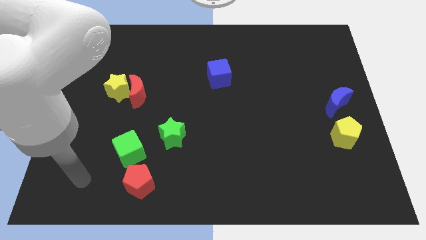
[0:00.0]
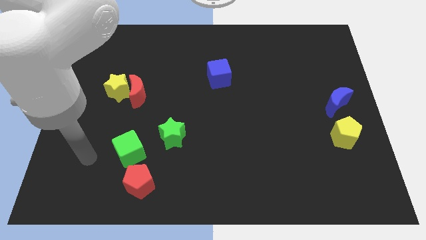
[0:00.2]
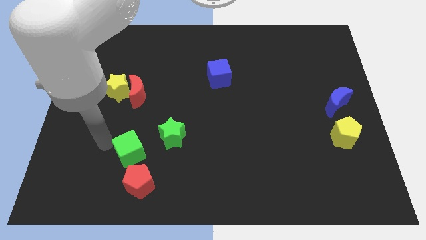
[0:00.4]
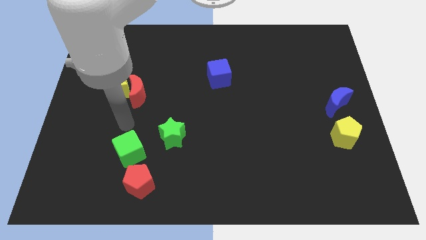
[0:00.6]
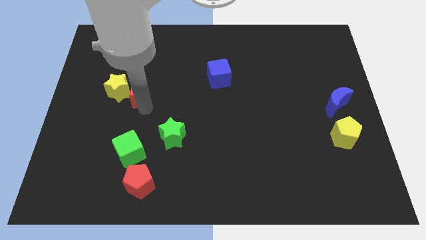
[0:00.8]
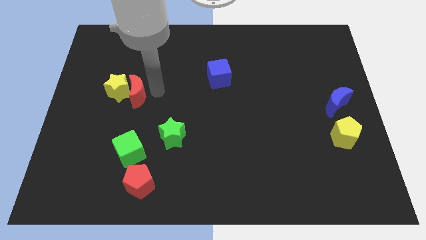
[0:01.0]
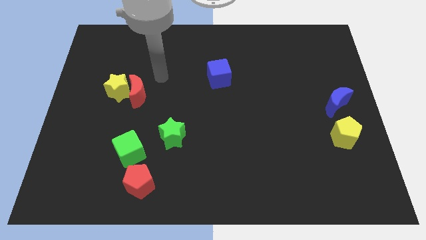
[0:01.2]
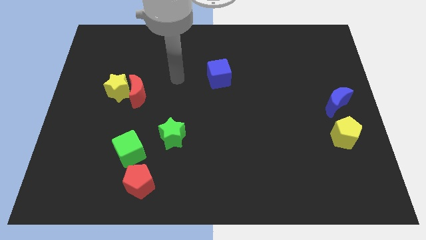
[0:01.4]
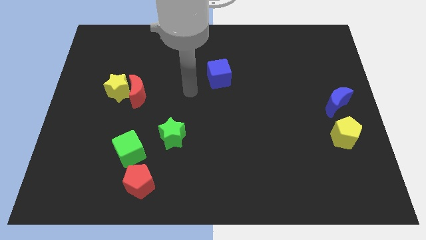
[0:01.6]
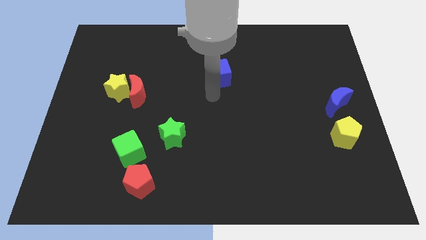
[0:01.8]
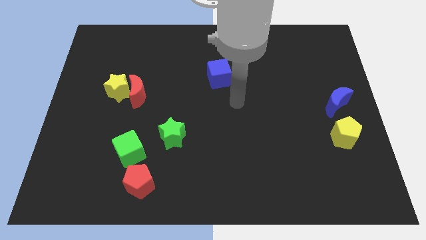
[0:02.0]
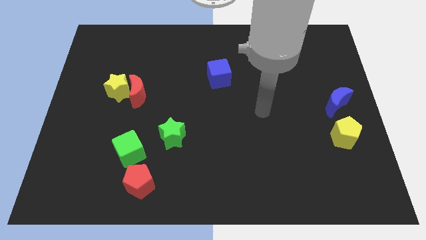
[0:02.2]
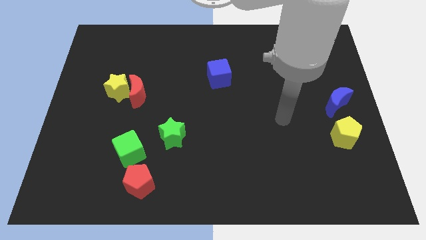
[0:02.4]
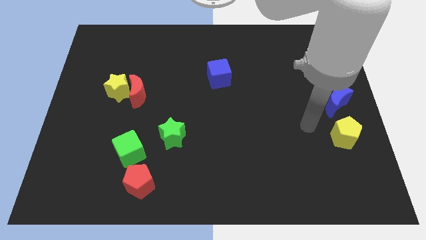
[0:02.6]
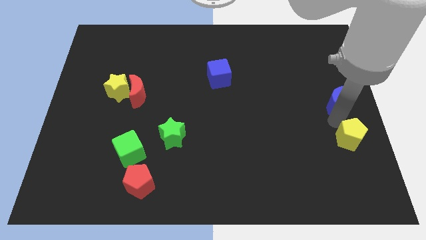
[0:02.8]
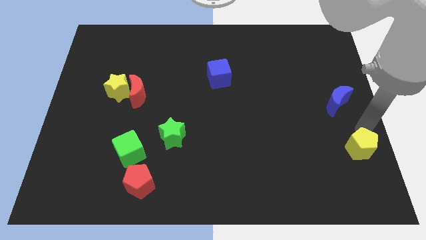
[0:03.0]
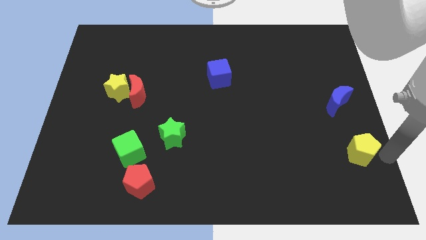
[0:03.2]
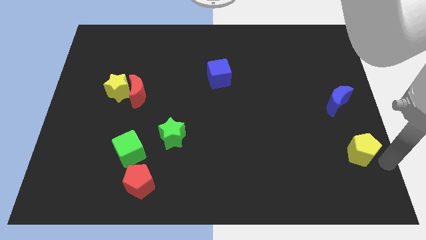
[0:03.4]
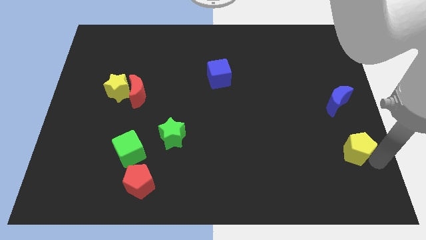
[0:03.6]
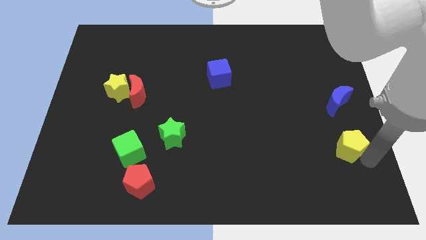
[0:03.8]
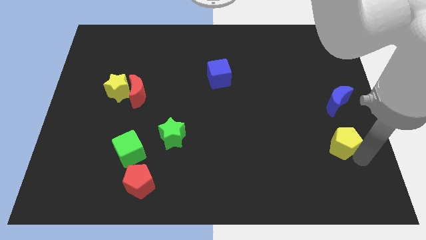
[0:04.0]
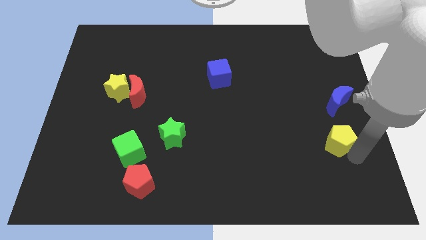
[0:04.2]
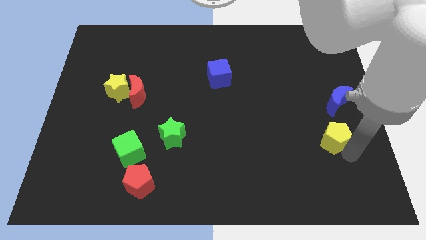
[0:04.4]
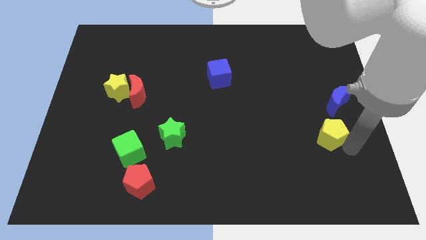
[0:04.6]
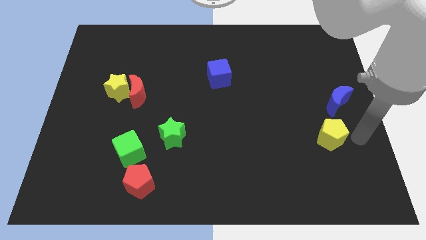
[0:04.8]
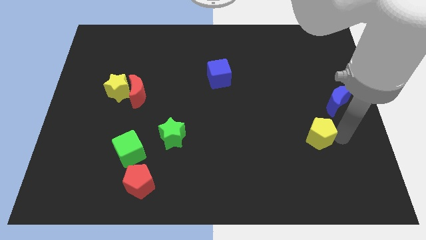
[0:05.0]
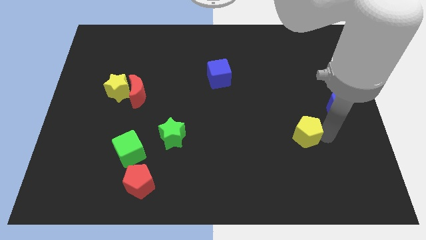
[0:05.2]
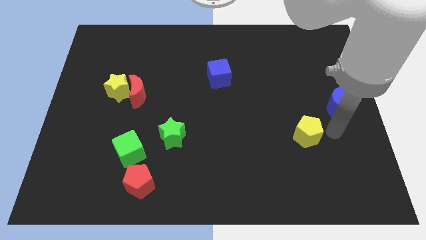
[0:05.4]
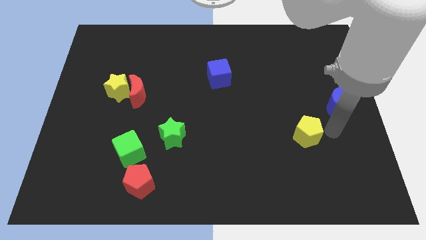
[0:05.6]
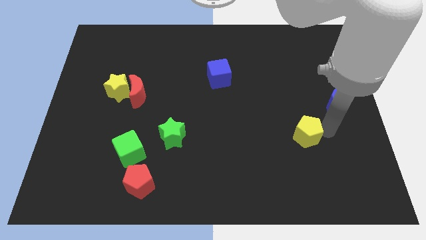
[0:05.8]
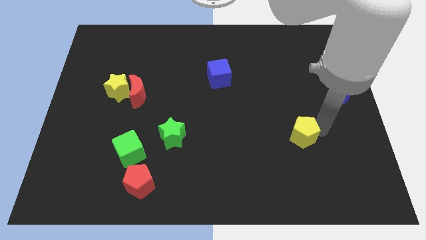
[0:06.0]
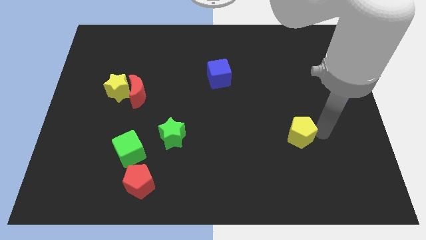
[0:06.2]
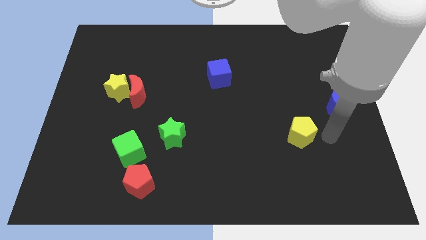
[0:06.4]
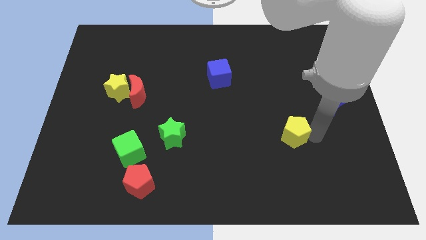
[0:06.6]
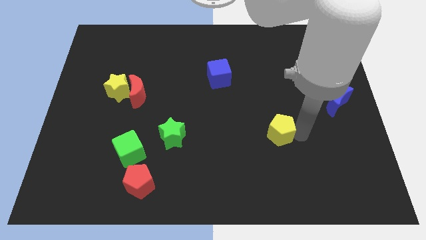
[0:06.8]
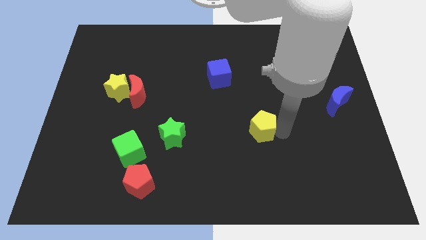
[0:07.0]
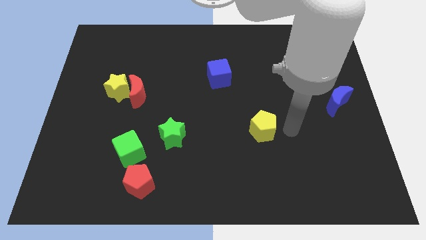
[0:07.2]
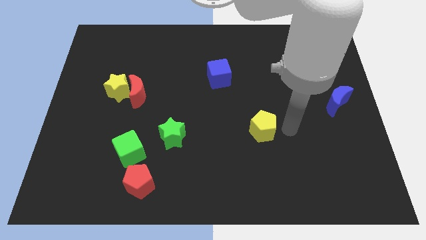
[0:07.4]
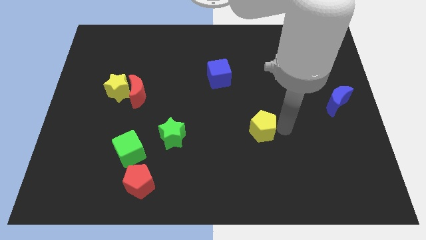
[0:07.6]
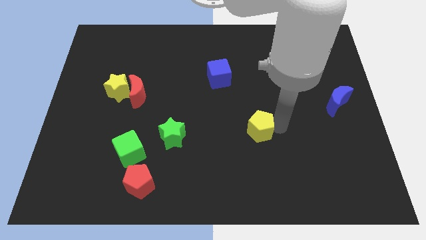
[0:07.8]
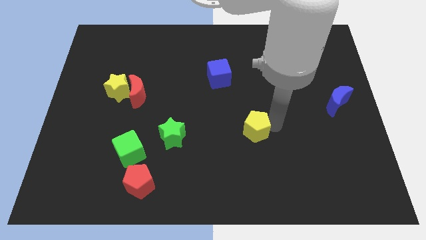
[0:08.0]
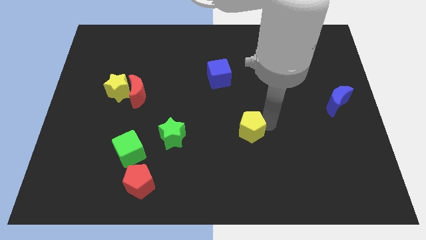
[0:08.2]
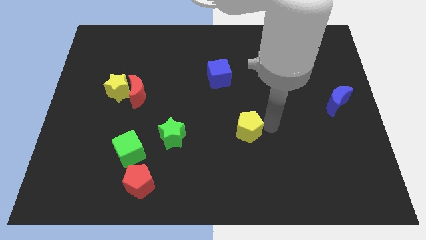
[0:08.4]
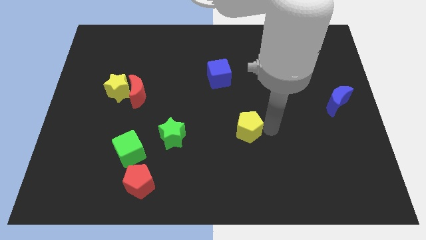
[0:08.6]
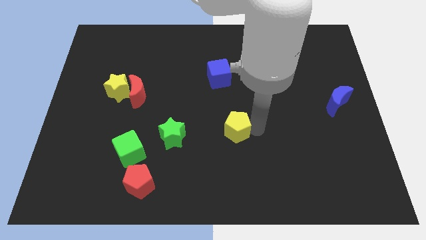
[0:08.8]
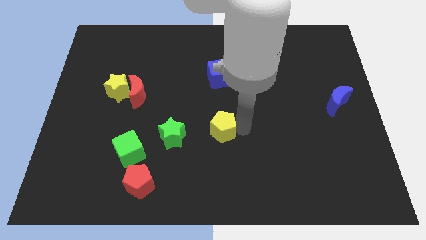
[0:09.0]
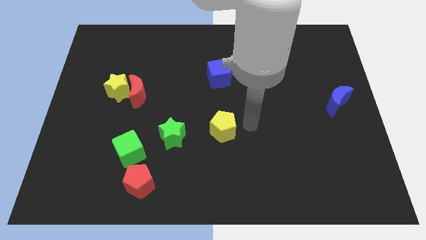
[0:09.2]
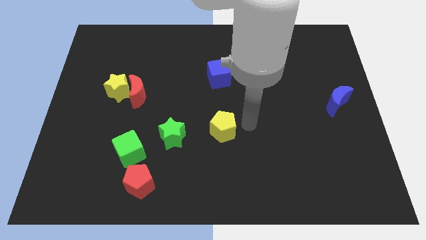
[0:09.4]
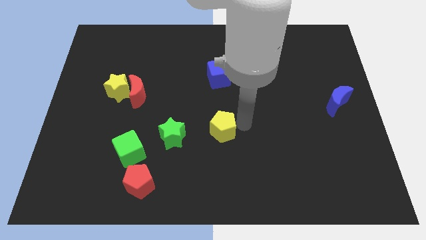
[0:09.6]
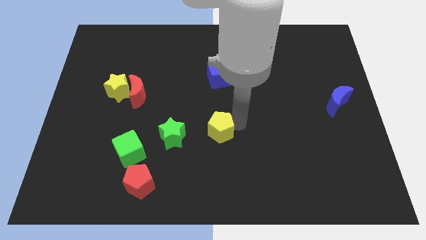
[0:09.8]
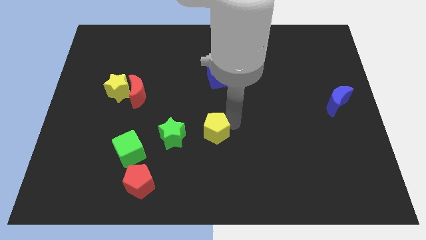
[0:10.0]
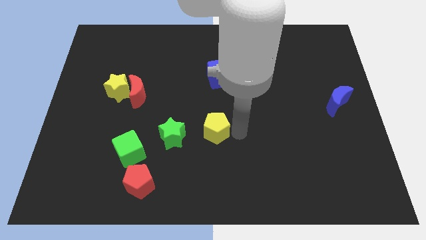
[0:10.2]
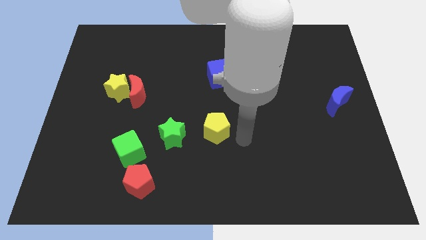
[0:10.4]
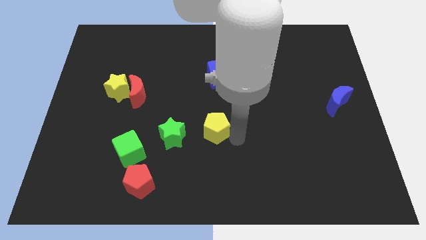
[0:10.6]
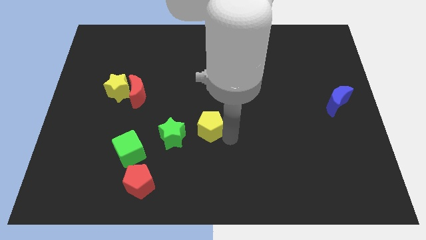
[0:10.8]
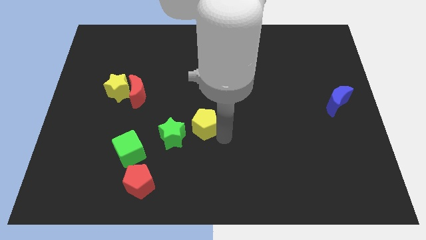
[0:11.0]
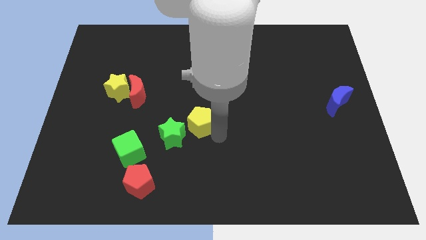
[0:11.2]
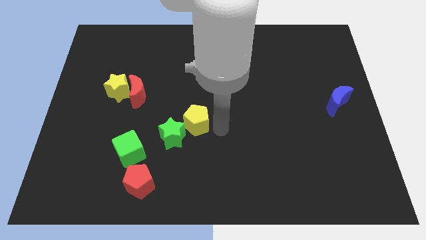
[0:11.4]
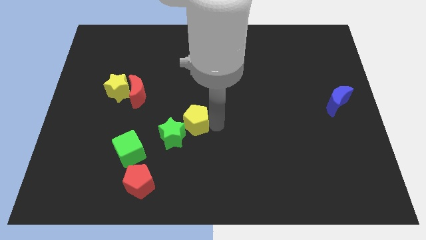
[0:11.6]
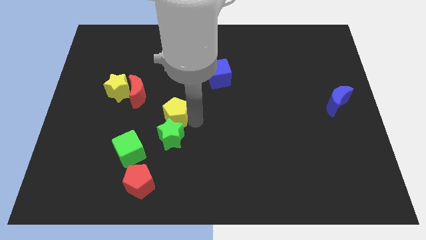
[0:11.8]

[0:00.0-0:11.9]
push the yellow pentagon to the top left side of the green star

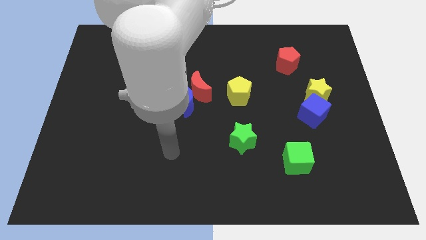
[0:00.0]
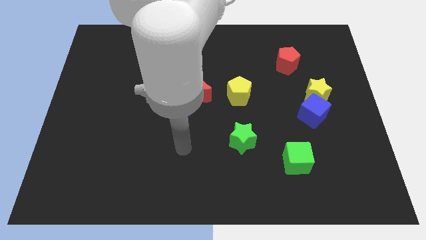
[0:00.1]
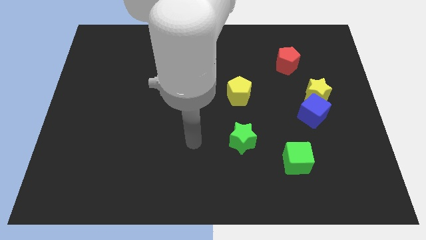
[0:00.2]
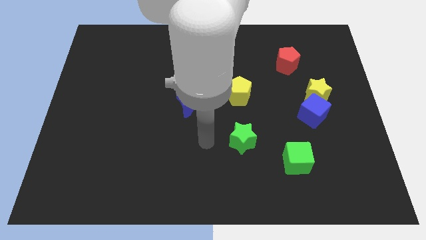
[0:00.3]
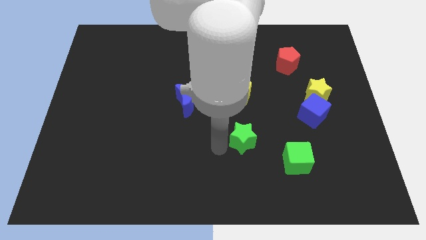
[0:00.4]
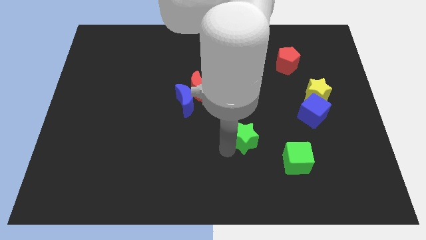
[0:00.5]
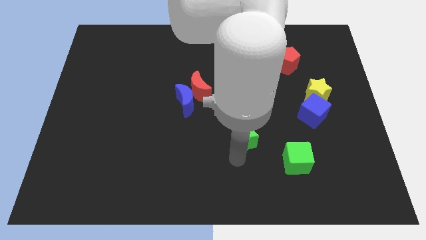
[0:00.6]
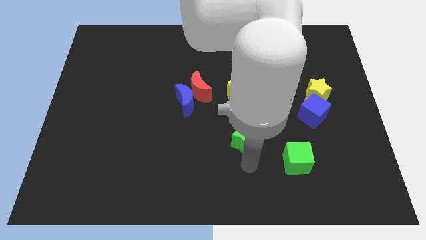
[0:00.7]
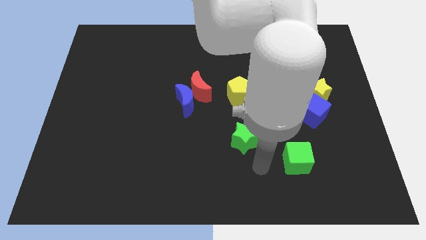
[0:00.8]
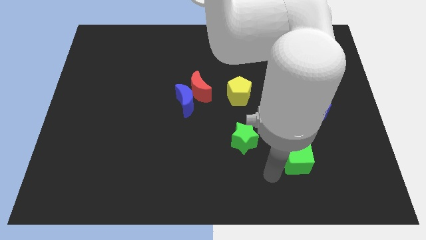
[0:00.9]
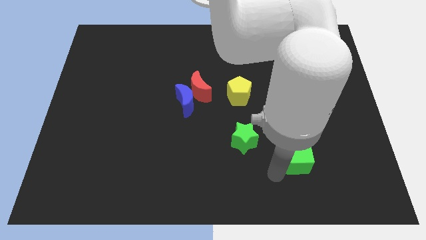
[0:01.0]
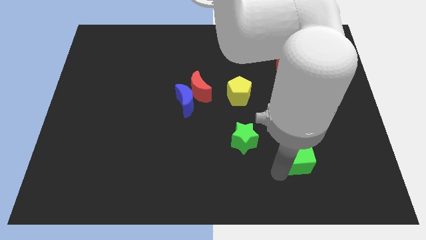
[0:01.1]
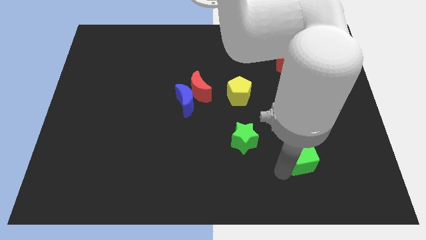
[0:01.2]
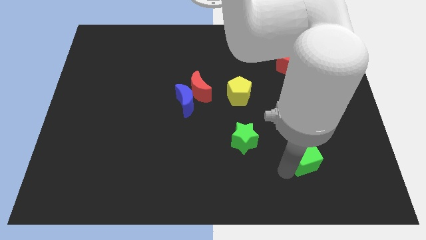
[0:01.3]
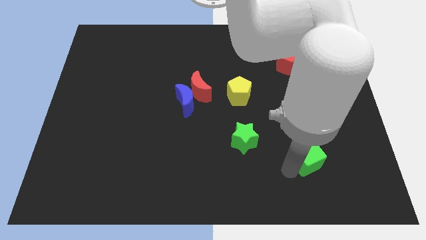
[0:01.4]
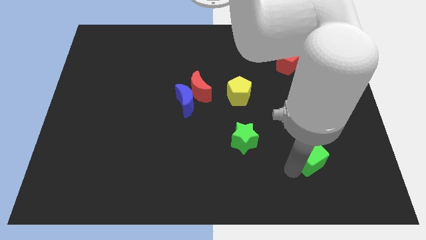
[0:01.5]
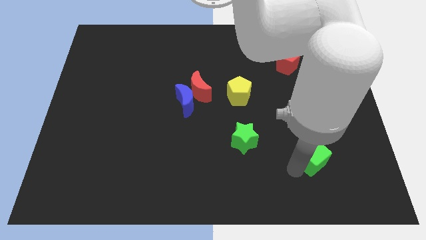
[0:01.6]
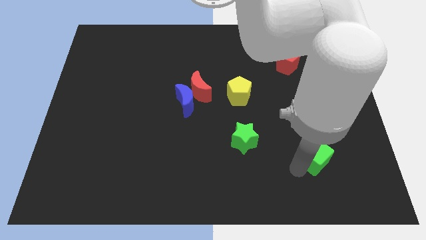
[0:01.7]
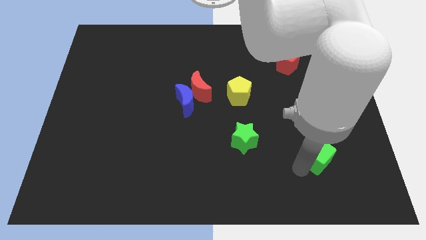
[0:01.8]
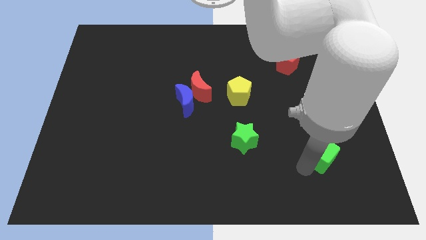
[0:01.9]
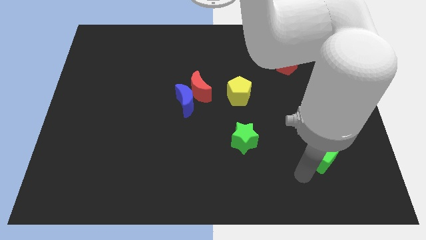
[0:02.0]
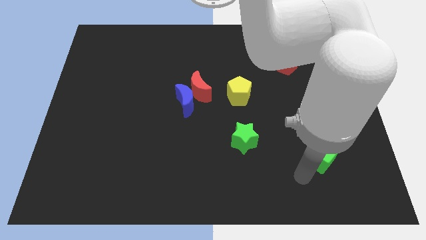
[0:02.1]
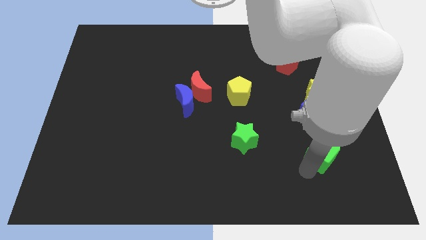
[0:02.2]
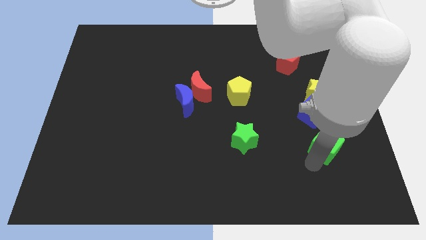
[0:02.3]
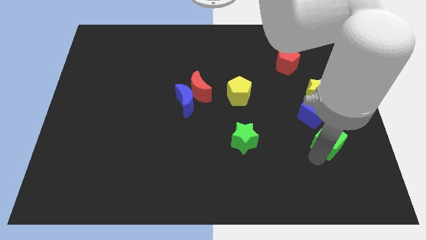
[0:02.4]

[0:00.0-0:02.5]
move the green cube to the bottom right of the blue cube
